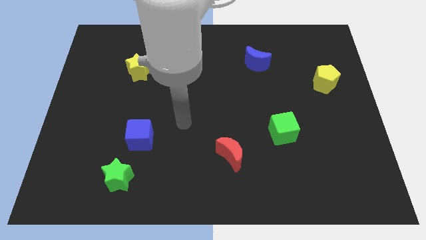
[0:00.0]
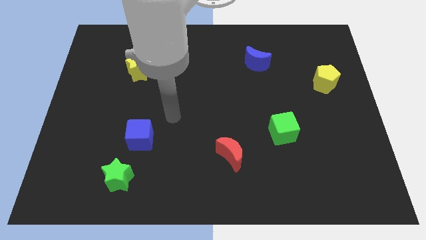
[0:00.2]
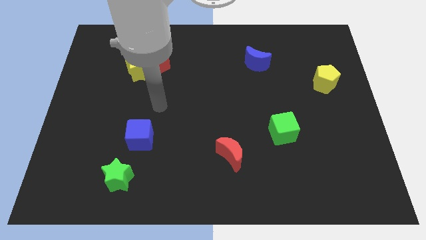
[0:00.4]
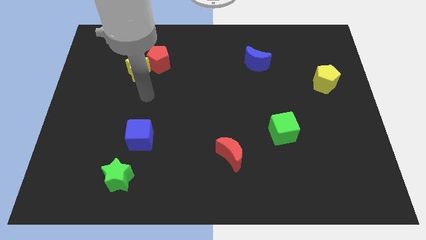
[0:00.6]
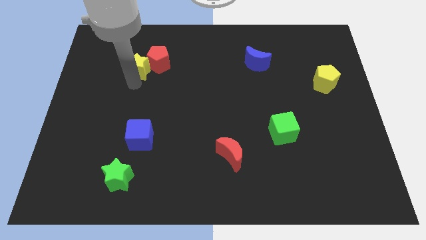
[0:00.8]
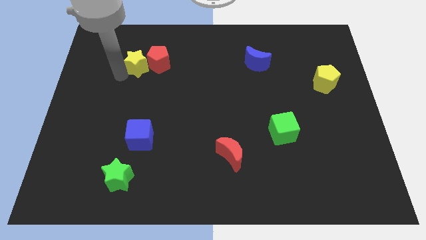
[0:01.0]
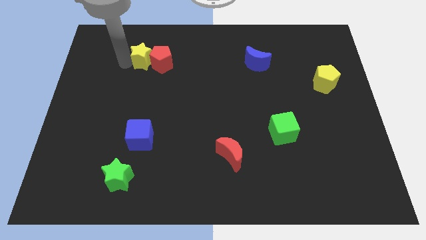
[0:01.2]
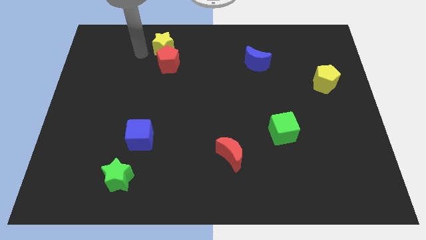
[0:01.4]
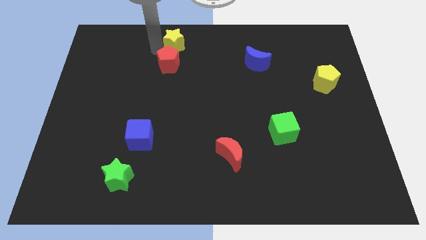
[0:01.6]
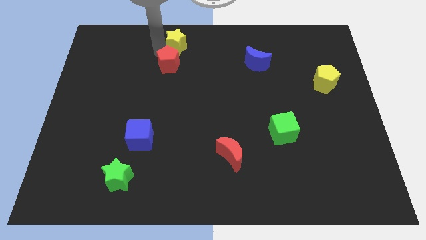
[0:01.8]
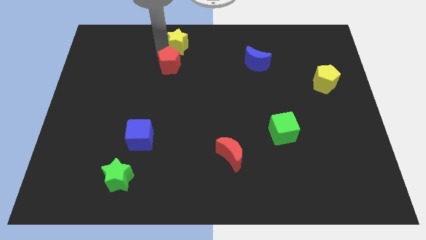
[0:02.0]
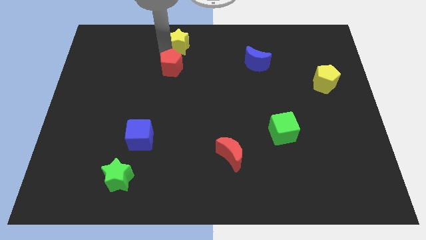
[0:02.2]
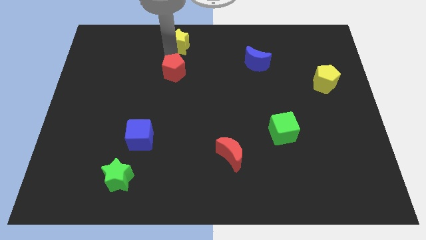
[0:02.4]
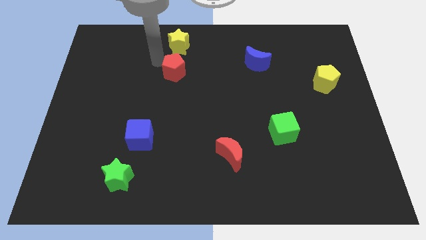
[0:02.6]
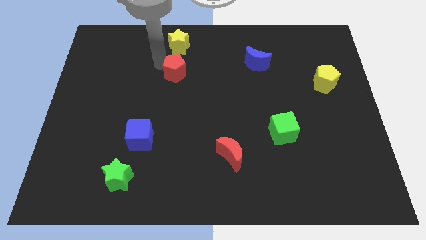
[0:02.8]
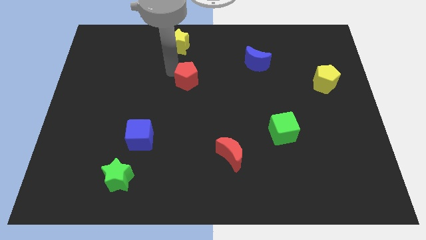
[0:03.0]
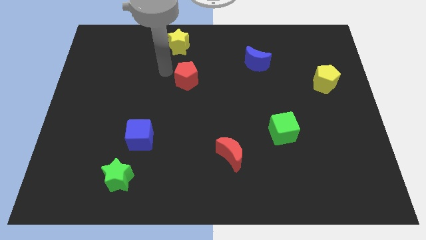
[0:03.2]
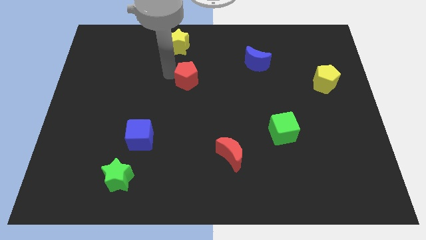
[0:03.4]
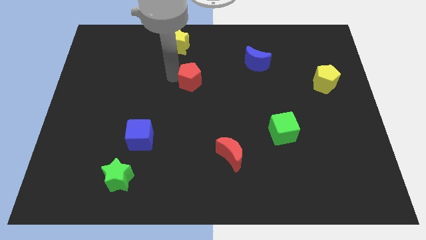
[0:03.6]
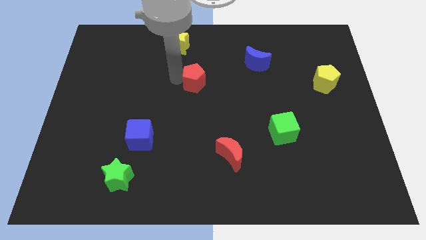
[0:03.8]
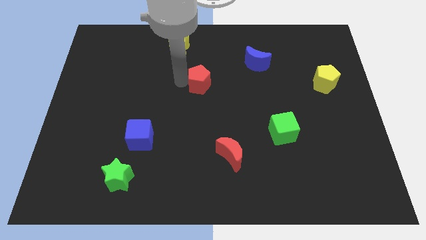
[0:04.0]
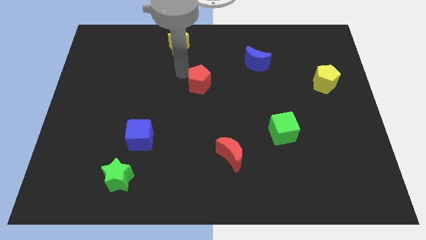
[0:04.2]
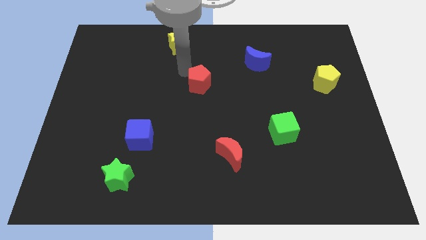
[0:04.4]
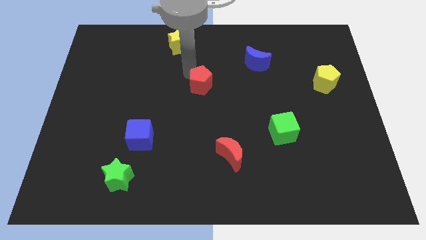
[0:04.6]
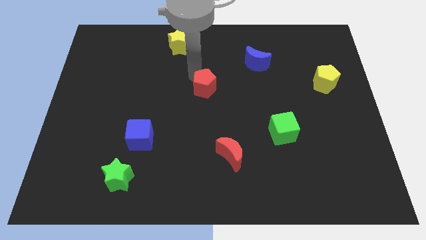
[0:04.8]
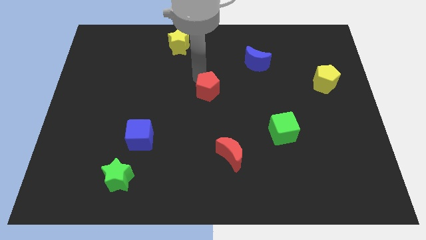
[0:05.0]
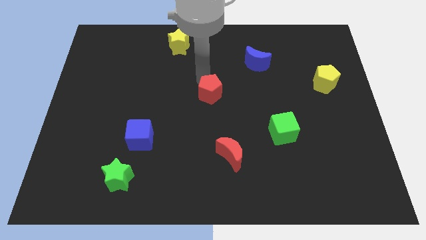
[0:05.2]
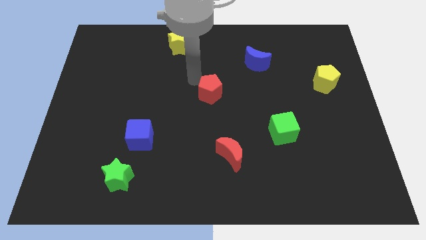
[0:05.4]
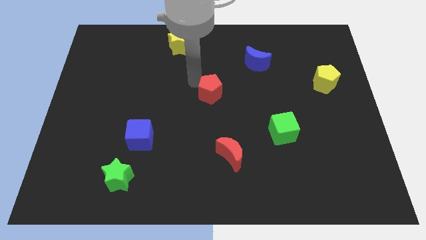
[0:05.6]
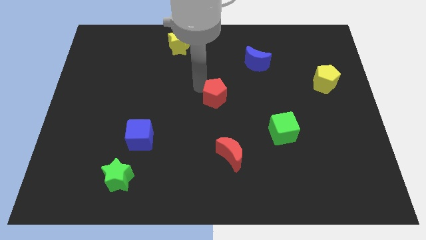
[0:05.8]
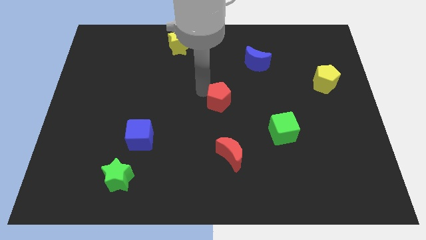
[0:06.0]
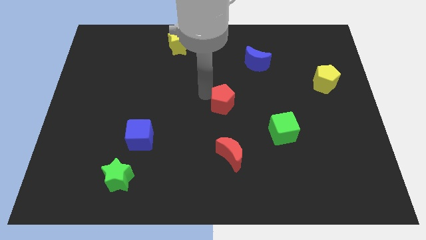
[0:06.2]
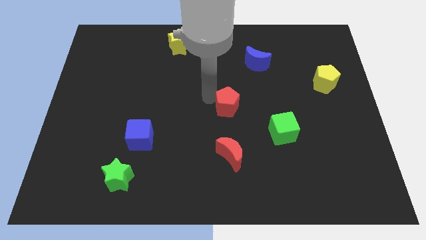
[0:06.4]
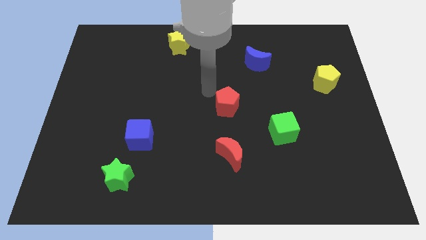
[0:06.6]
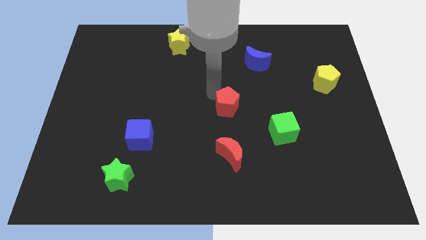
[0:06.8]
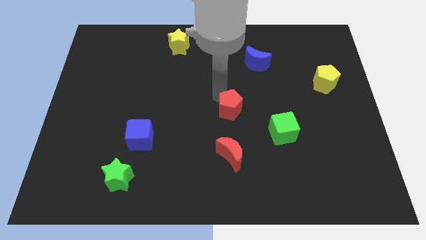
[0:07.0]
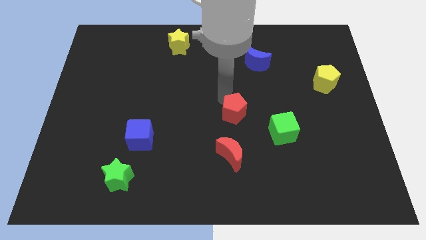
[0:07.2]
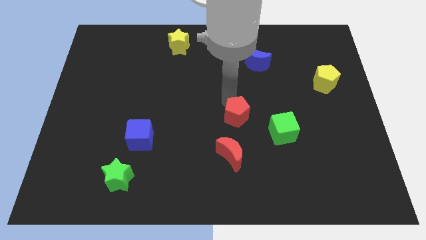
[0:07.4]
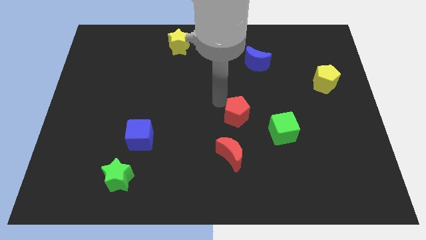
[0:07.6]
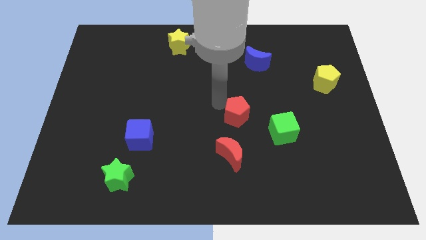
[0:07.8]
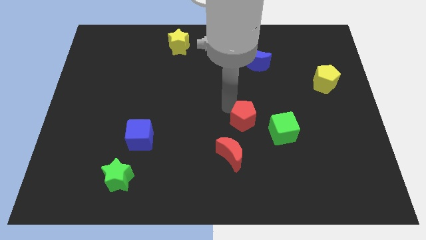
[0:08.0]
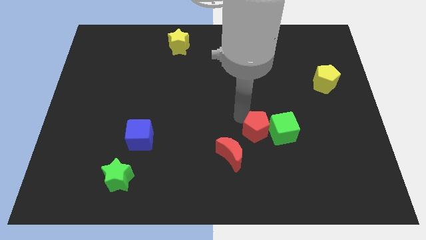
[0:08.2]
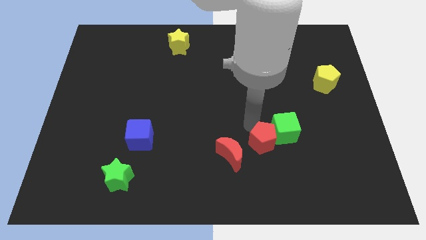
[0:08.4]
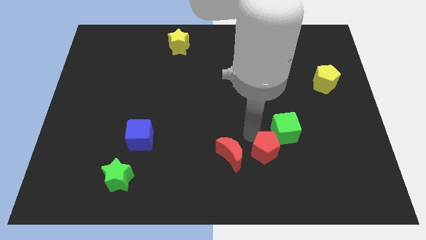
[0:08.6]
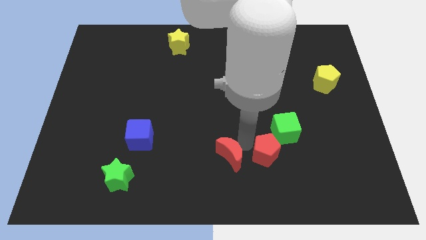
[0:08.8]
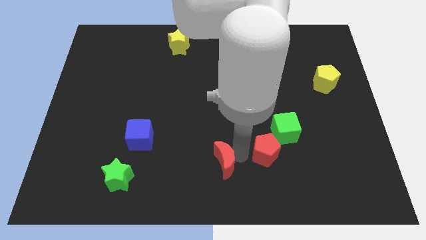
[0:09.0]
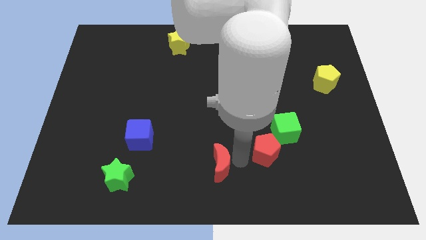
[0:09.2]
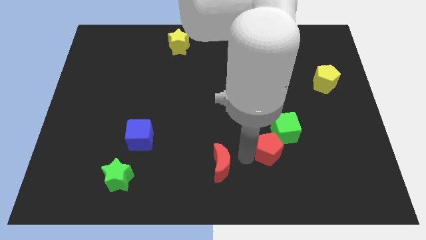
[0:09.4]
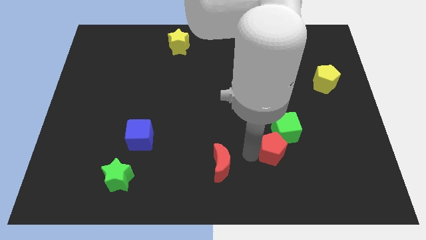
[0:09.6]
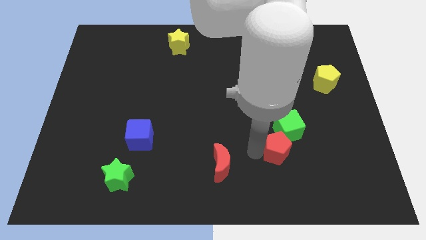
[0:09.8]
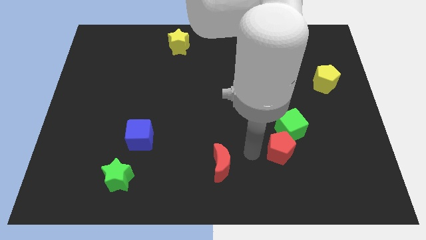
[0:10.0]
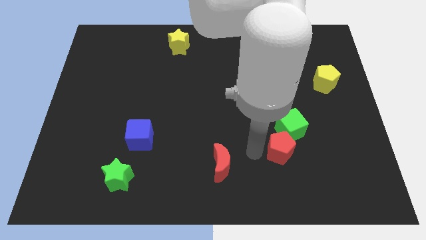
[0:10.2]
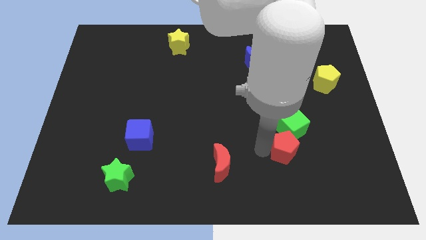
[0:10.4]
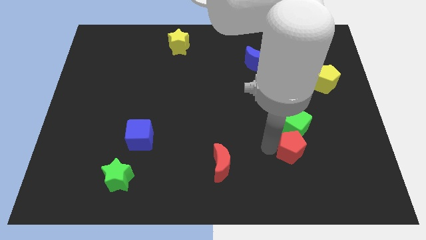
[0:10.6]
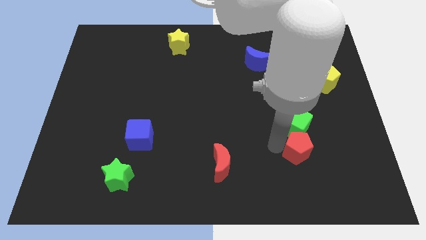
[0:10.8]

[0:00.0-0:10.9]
move the red pentagon to the bottom right of the green cube

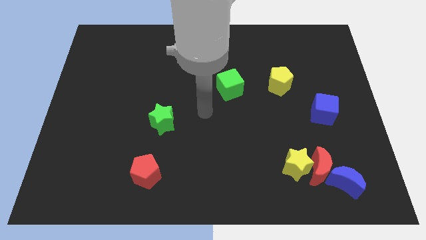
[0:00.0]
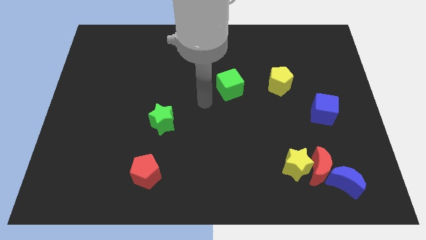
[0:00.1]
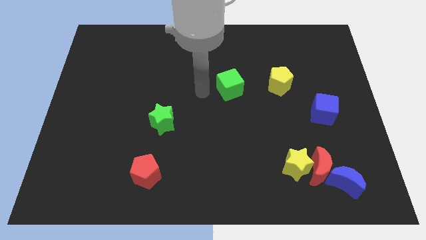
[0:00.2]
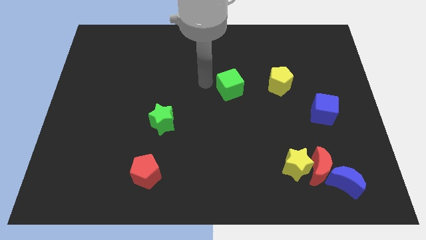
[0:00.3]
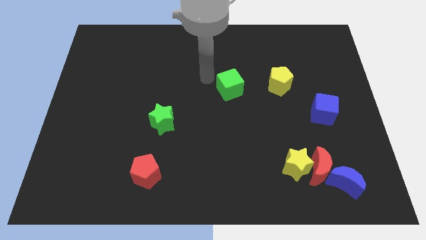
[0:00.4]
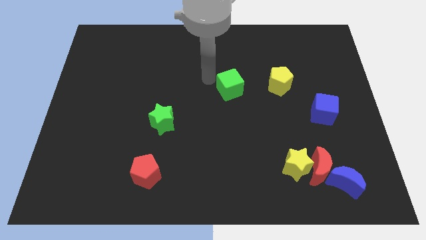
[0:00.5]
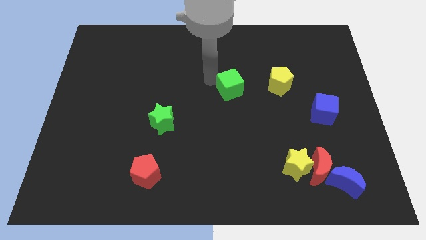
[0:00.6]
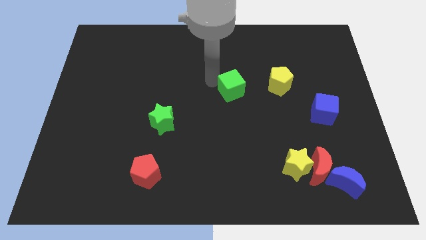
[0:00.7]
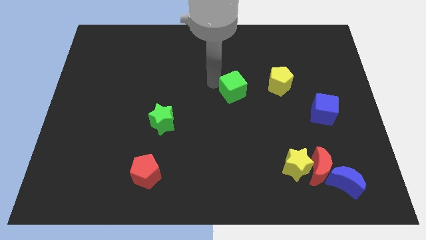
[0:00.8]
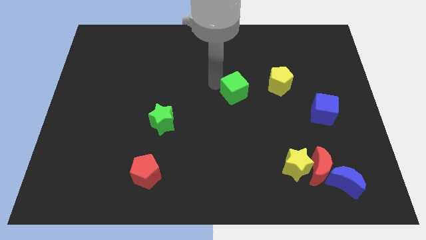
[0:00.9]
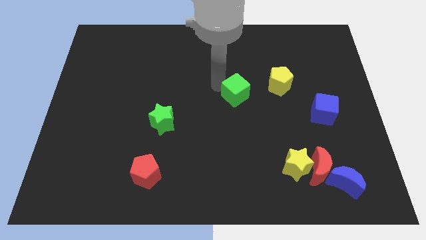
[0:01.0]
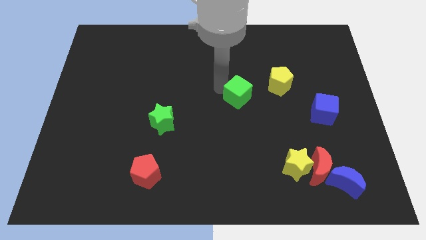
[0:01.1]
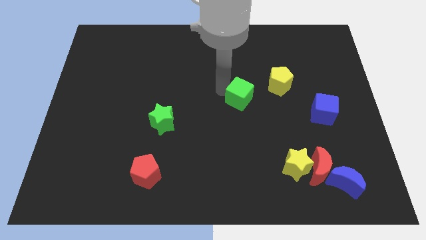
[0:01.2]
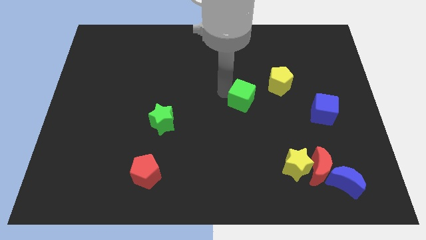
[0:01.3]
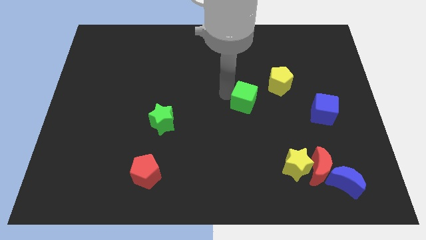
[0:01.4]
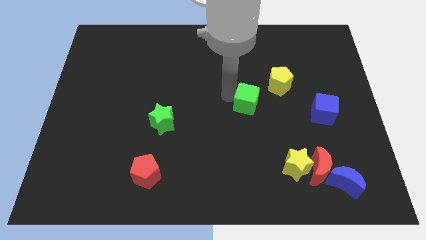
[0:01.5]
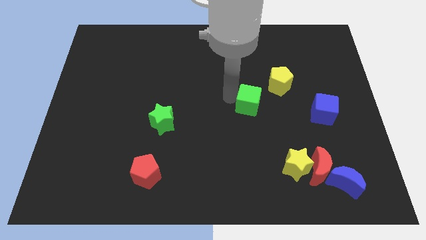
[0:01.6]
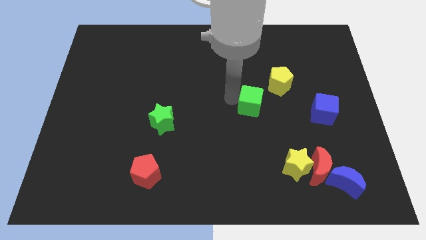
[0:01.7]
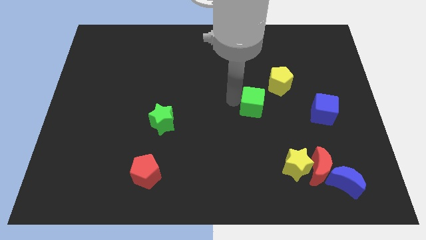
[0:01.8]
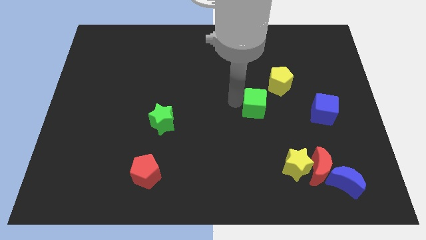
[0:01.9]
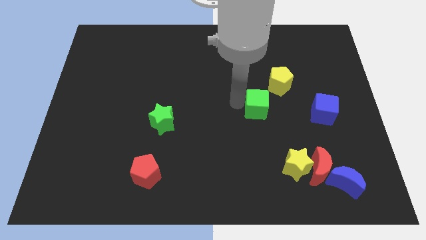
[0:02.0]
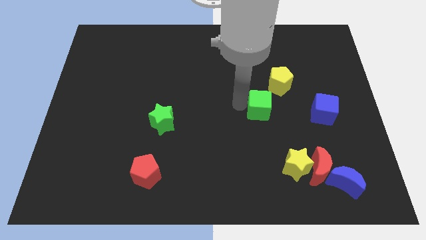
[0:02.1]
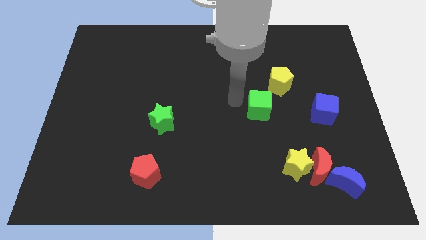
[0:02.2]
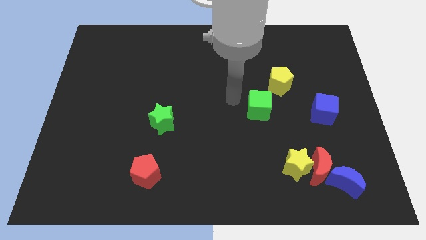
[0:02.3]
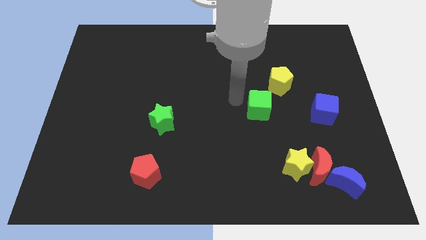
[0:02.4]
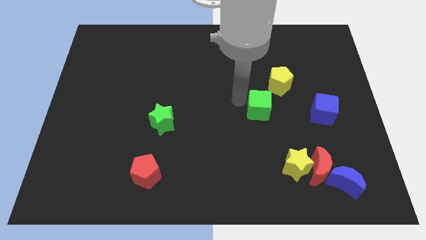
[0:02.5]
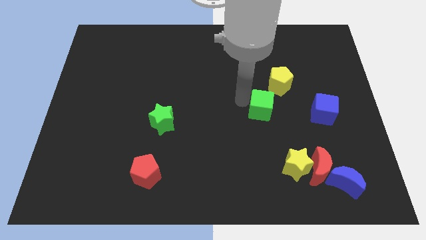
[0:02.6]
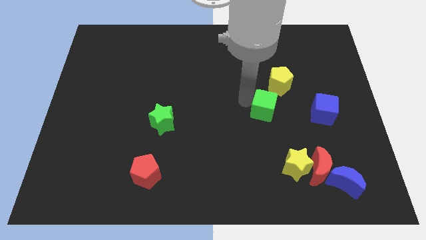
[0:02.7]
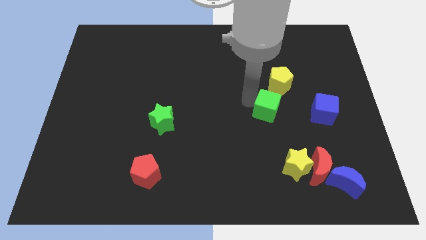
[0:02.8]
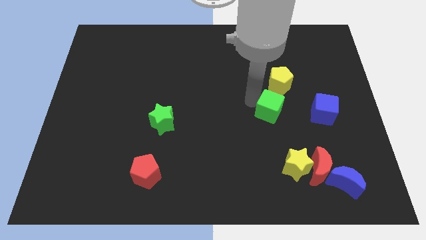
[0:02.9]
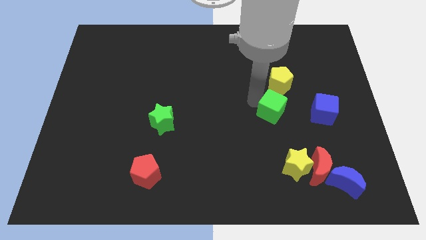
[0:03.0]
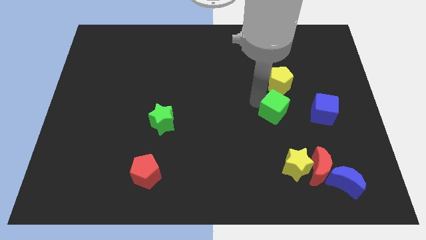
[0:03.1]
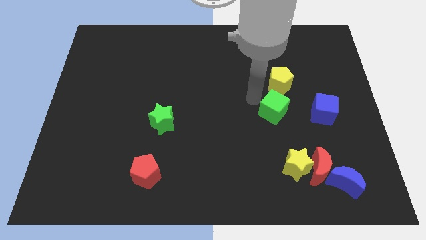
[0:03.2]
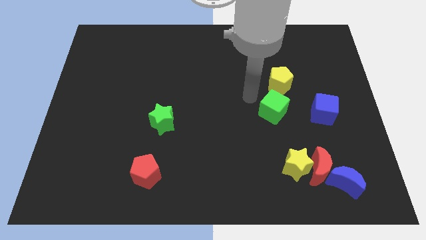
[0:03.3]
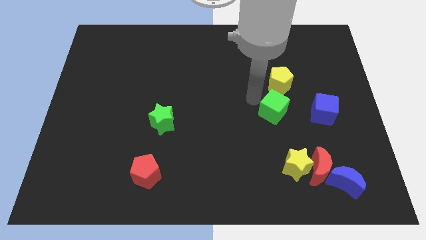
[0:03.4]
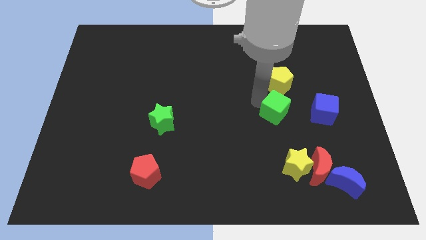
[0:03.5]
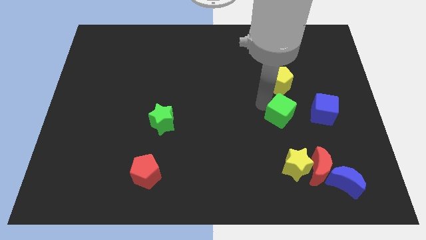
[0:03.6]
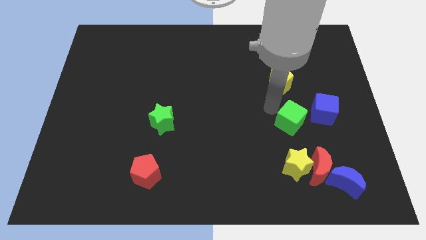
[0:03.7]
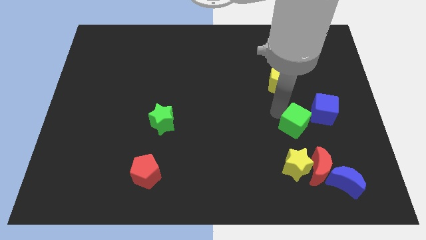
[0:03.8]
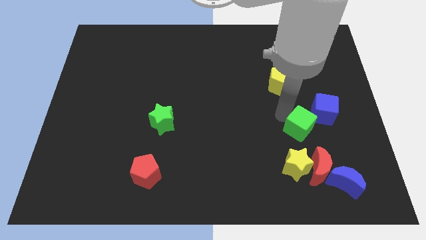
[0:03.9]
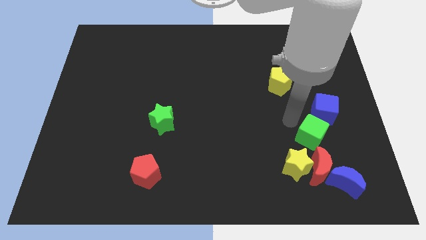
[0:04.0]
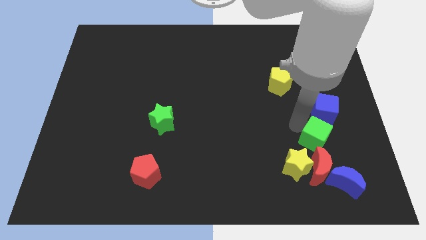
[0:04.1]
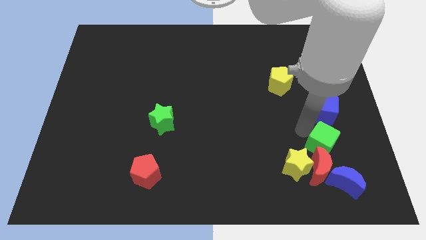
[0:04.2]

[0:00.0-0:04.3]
move the green cube to the top right side of the red moon
